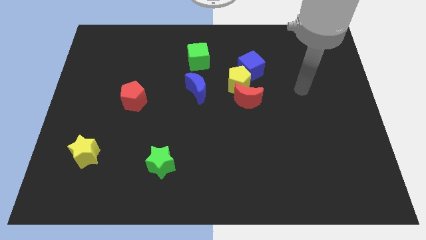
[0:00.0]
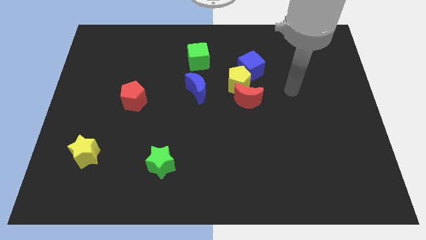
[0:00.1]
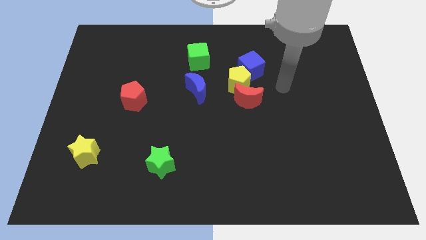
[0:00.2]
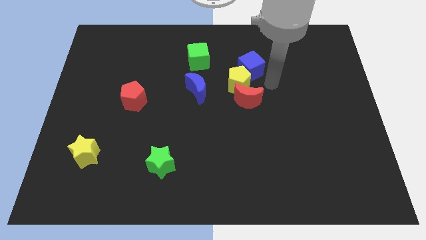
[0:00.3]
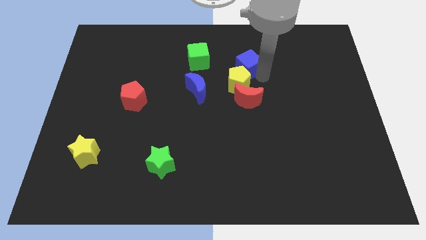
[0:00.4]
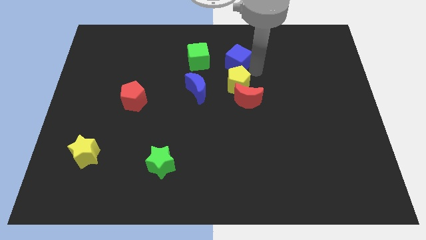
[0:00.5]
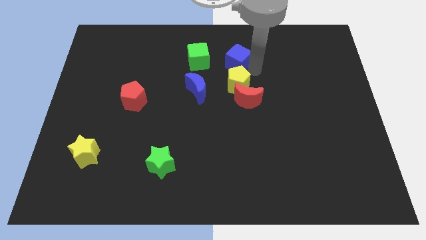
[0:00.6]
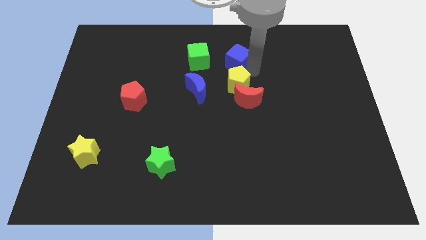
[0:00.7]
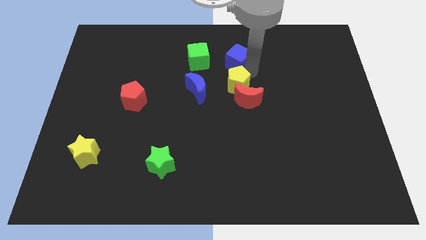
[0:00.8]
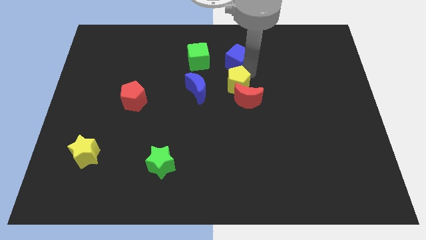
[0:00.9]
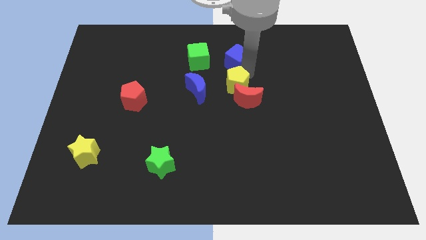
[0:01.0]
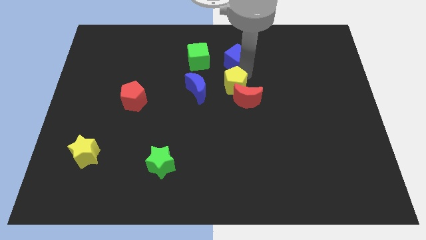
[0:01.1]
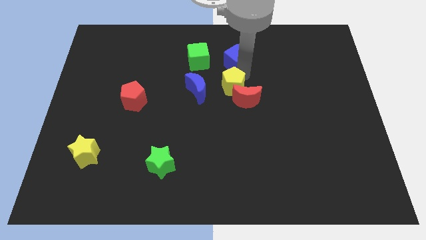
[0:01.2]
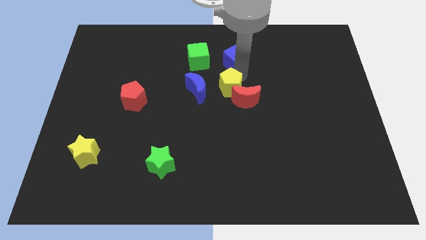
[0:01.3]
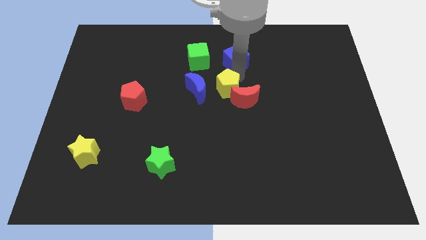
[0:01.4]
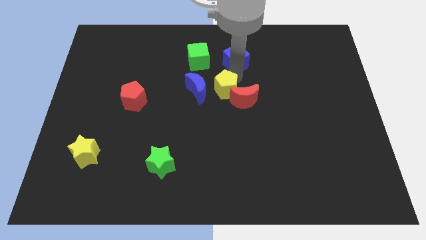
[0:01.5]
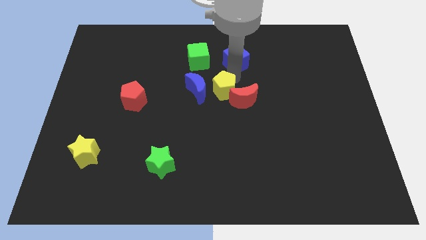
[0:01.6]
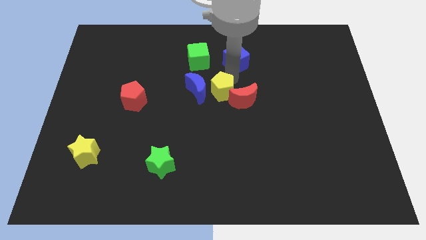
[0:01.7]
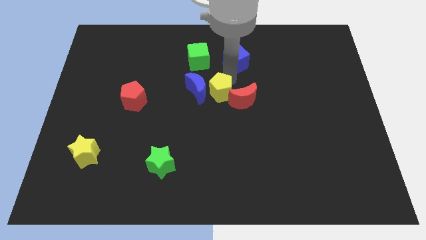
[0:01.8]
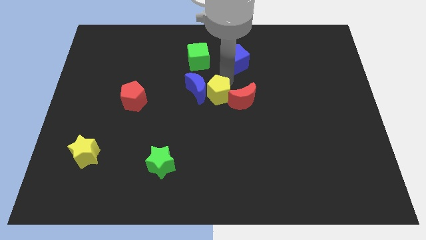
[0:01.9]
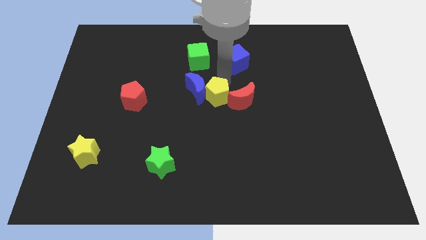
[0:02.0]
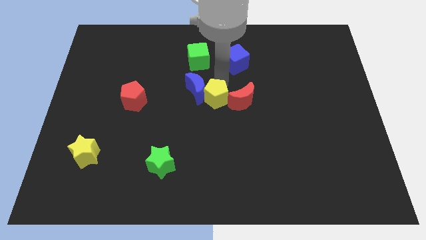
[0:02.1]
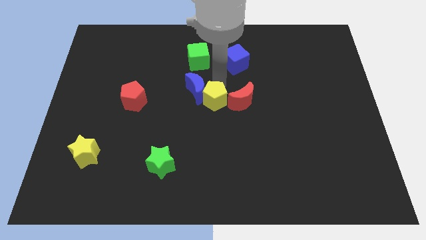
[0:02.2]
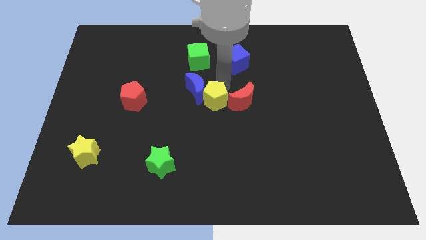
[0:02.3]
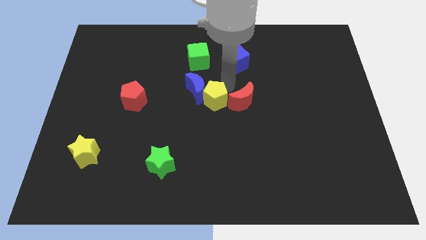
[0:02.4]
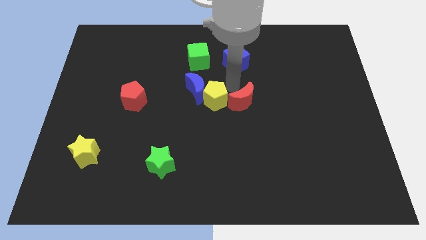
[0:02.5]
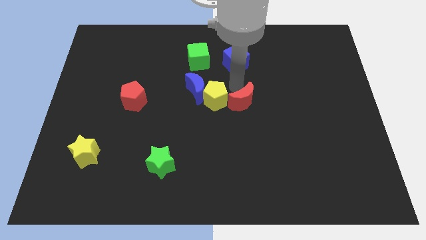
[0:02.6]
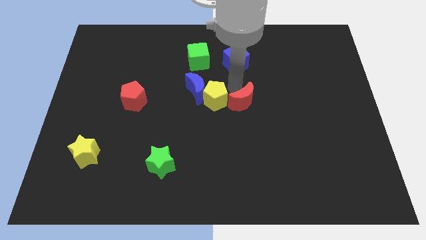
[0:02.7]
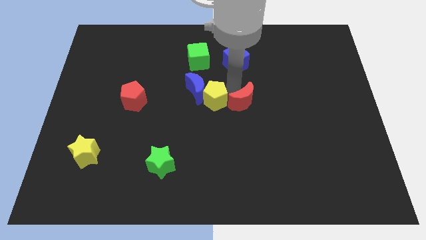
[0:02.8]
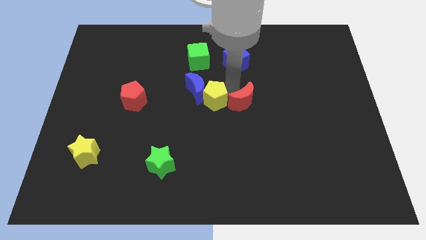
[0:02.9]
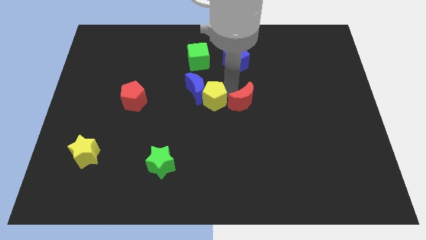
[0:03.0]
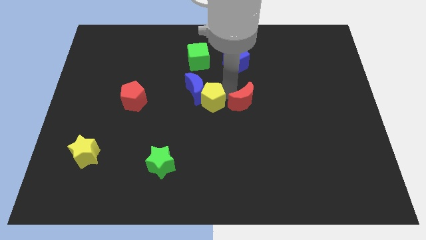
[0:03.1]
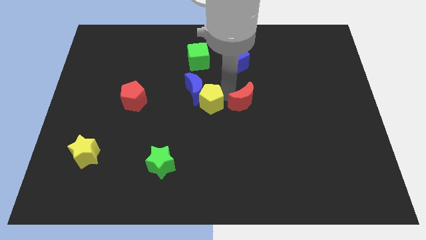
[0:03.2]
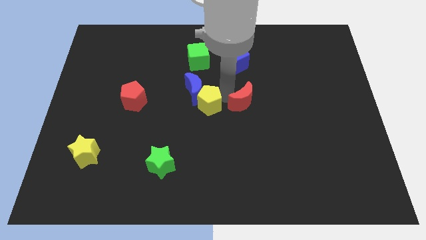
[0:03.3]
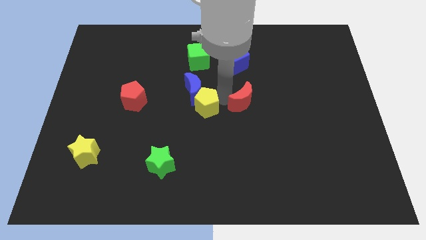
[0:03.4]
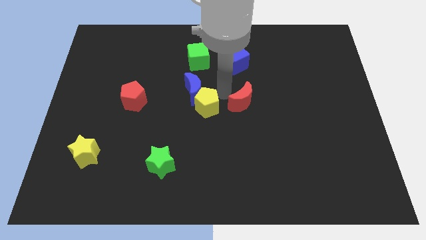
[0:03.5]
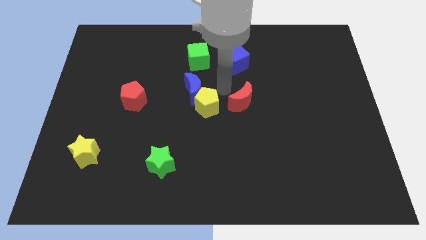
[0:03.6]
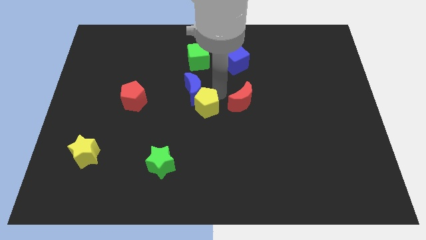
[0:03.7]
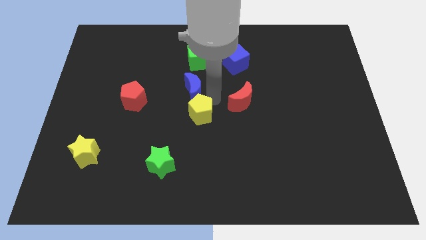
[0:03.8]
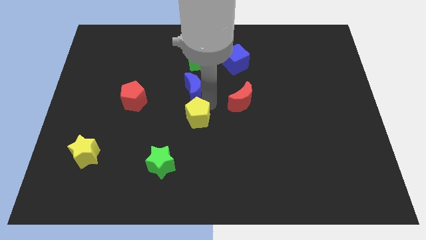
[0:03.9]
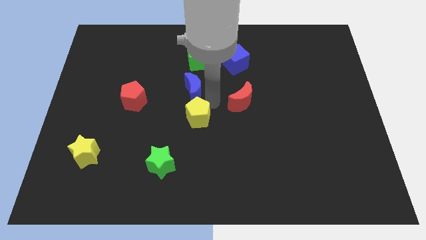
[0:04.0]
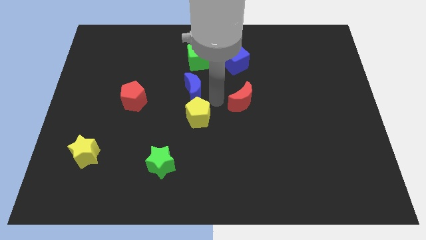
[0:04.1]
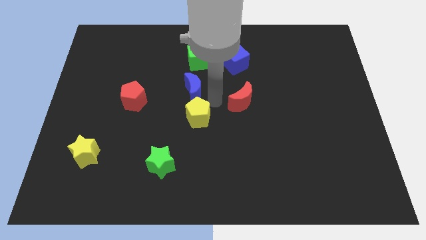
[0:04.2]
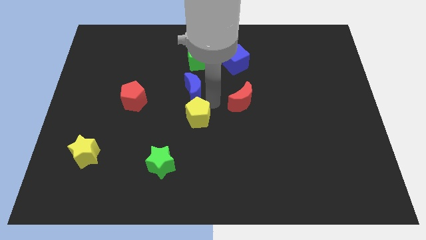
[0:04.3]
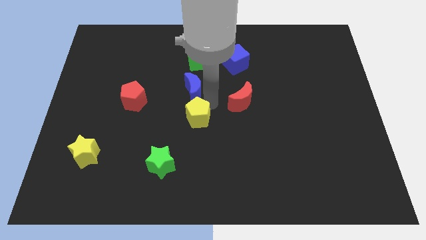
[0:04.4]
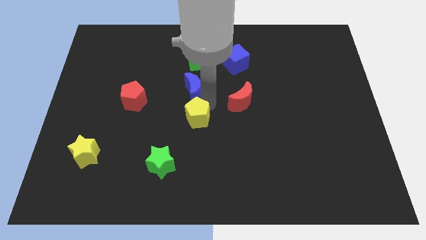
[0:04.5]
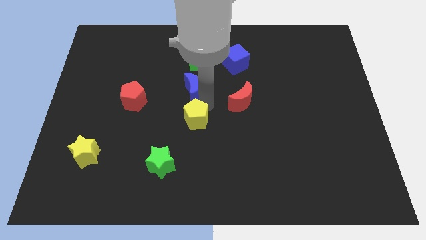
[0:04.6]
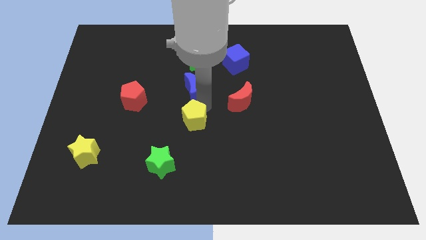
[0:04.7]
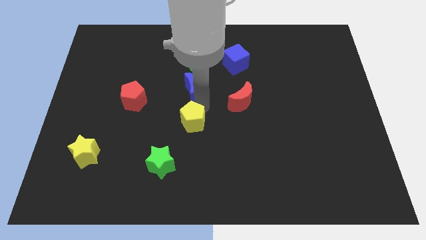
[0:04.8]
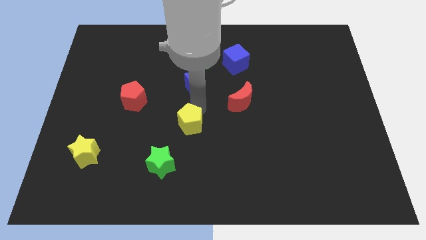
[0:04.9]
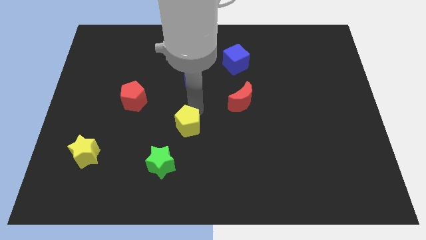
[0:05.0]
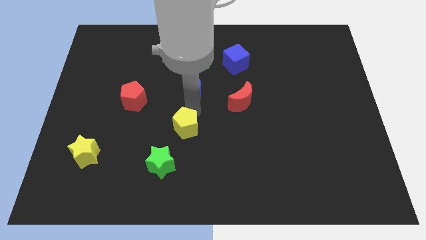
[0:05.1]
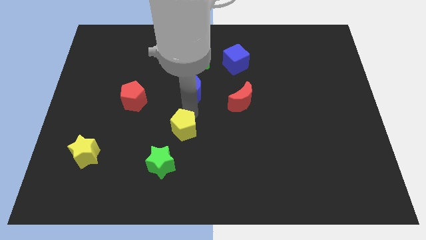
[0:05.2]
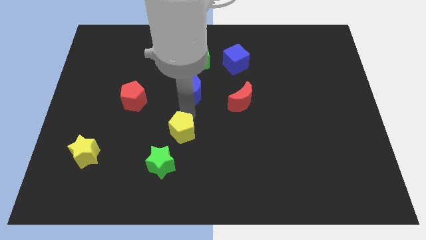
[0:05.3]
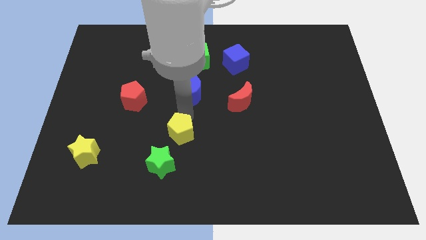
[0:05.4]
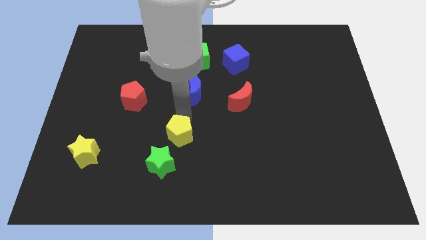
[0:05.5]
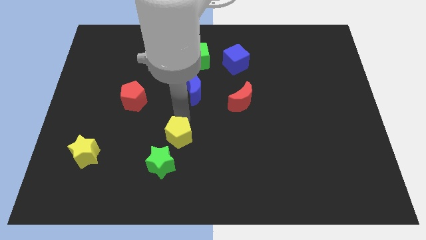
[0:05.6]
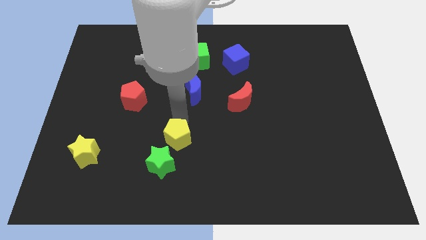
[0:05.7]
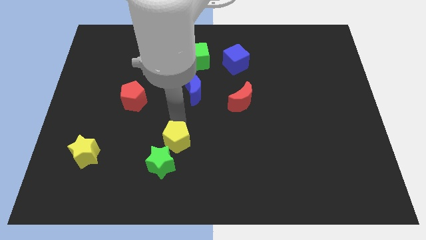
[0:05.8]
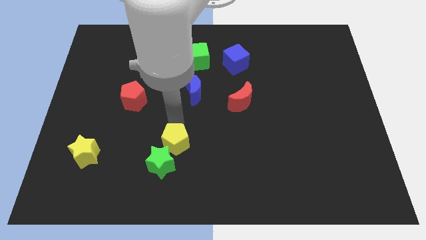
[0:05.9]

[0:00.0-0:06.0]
move the yellow pentagon to the green star

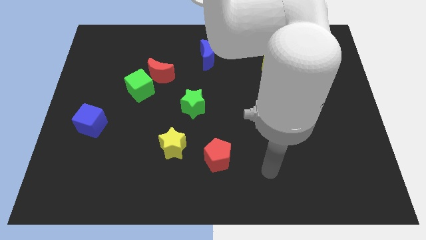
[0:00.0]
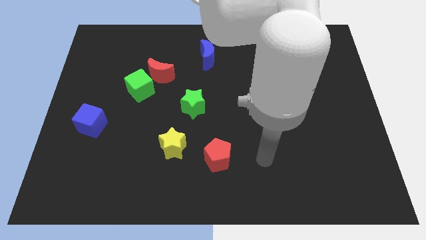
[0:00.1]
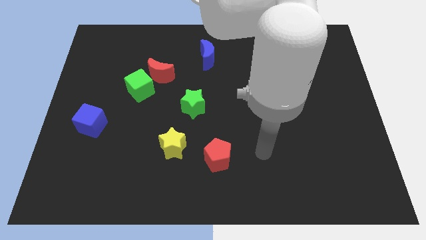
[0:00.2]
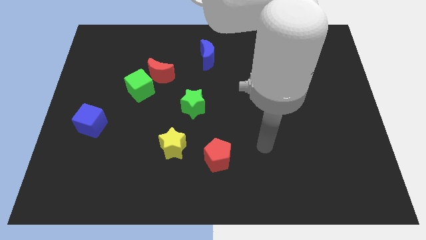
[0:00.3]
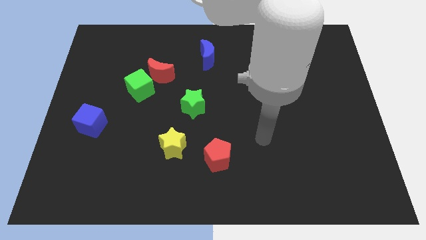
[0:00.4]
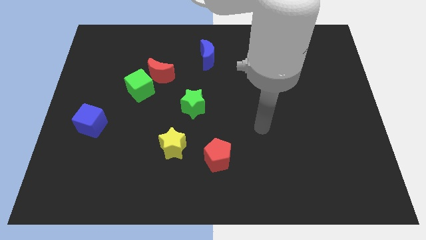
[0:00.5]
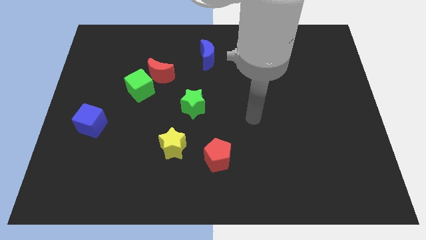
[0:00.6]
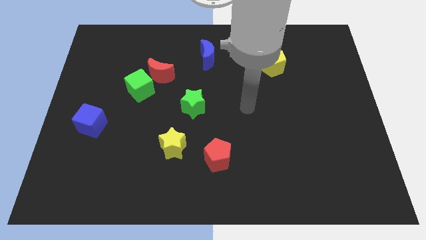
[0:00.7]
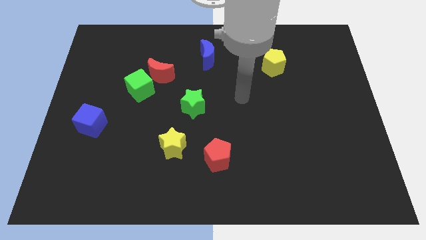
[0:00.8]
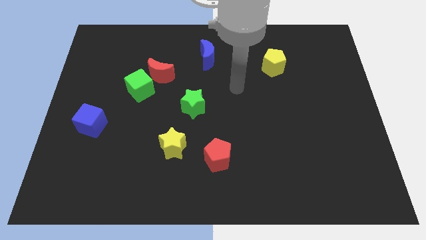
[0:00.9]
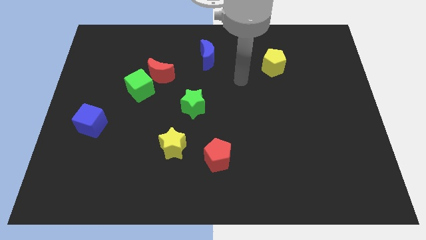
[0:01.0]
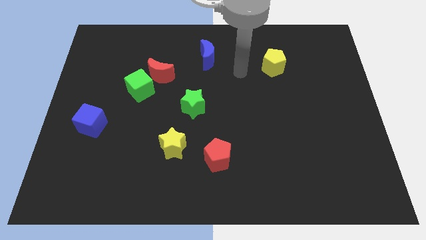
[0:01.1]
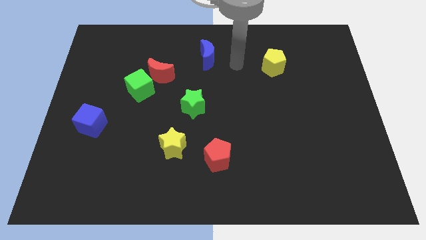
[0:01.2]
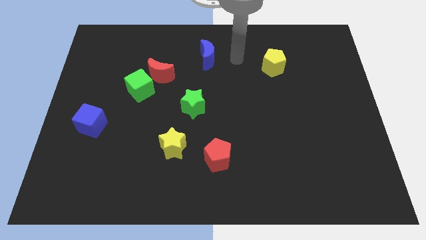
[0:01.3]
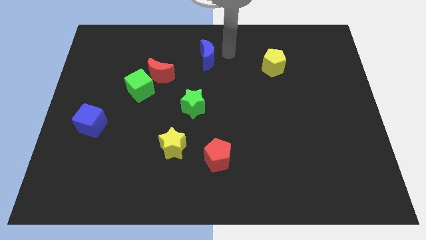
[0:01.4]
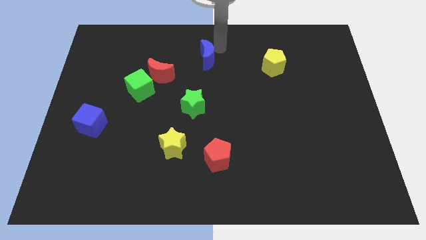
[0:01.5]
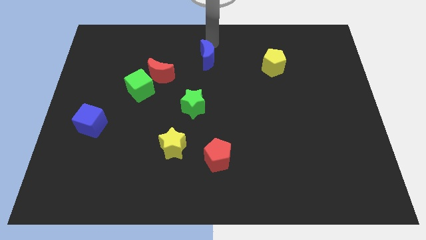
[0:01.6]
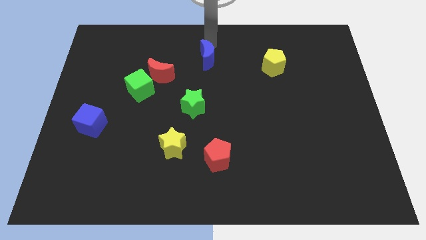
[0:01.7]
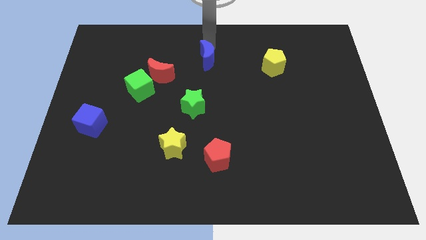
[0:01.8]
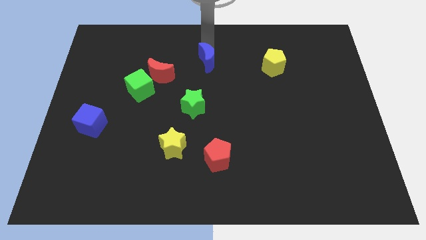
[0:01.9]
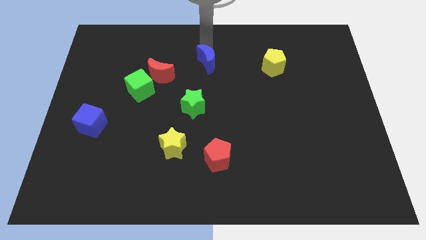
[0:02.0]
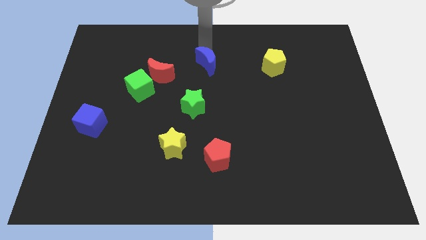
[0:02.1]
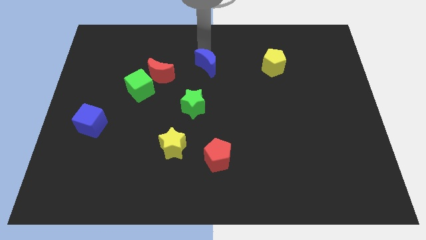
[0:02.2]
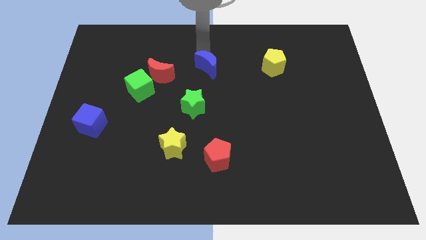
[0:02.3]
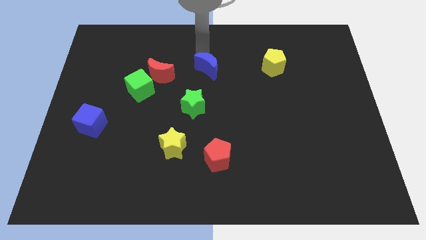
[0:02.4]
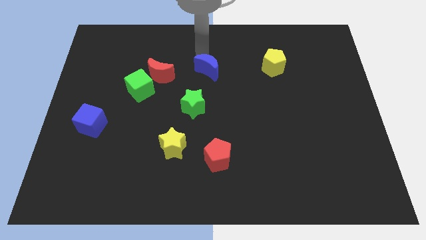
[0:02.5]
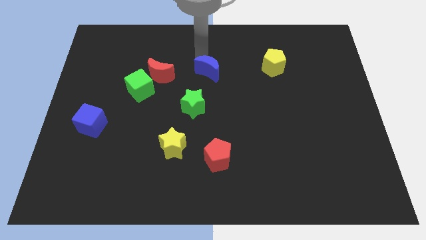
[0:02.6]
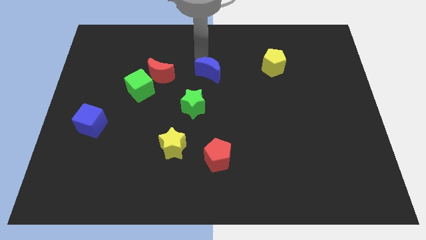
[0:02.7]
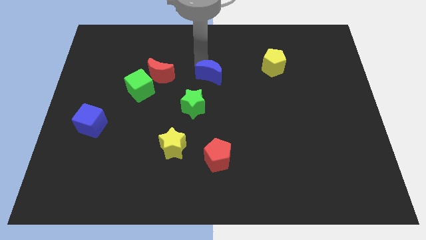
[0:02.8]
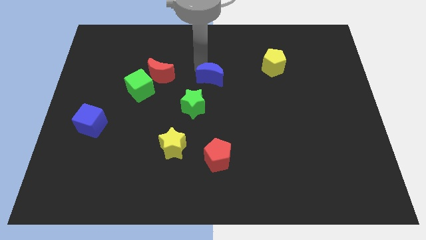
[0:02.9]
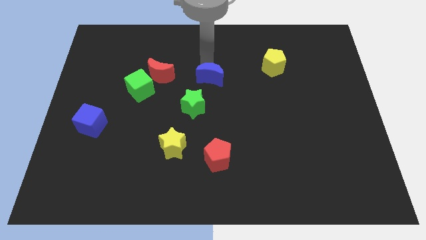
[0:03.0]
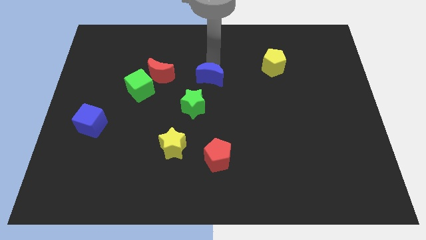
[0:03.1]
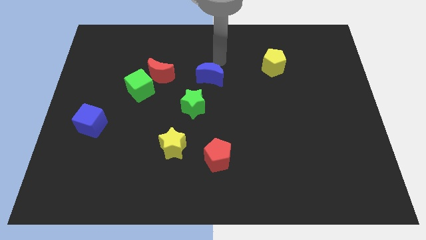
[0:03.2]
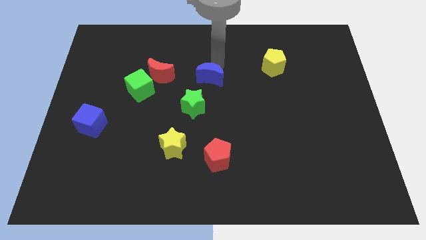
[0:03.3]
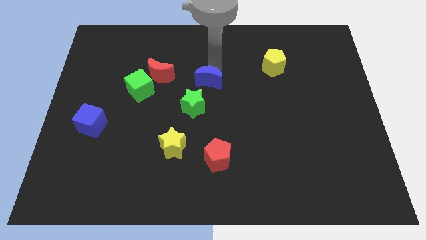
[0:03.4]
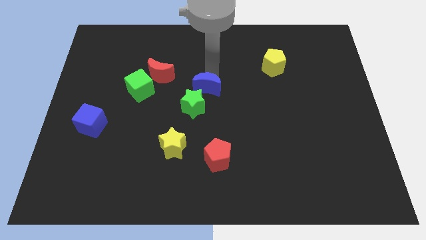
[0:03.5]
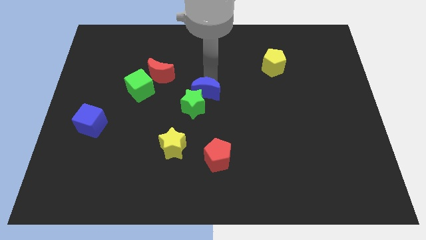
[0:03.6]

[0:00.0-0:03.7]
push the blue moon close to the green star
